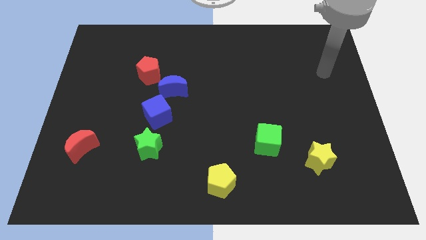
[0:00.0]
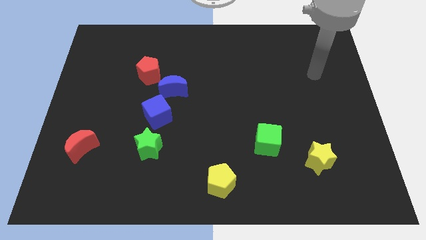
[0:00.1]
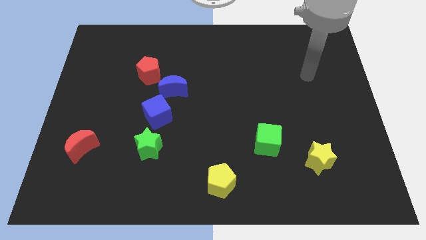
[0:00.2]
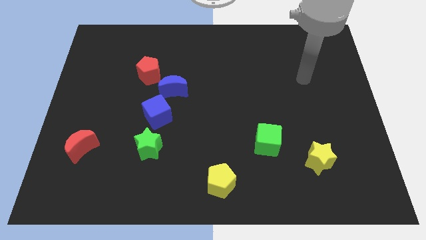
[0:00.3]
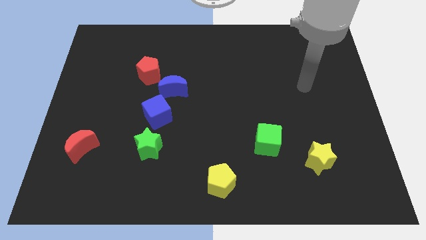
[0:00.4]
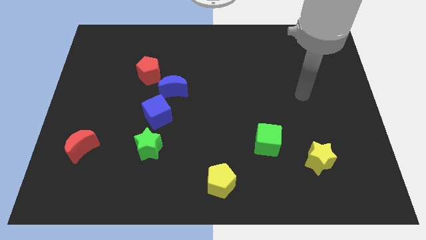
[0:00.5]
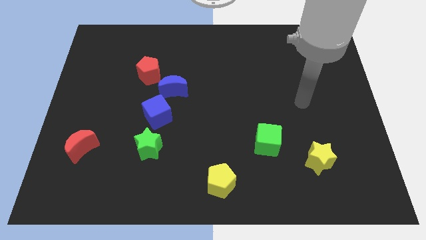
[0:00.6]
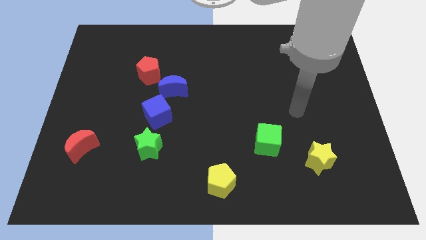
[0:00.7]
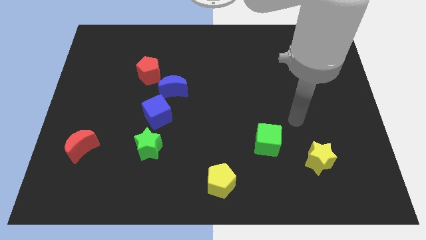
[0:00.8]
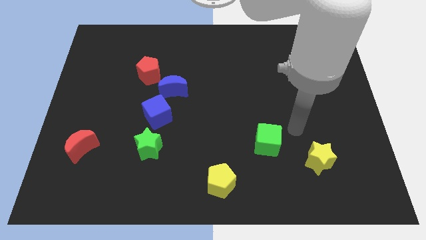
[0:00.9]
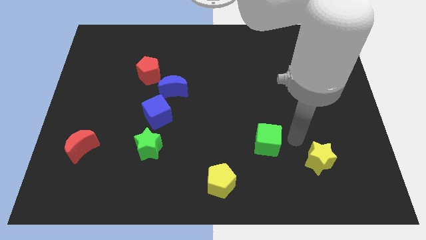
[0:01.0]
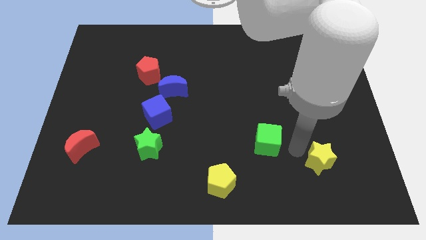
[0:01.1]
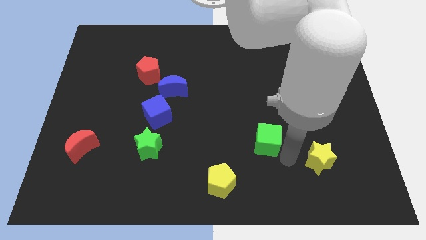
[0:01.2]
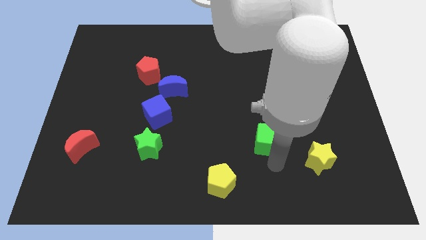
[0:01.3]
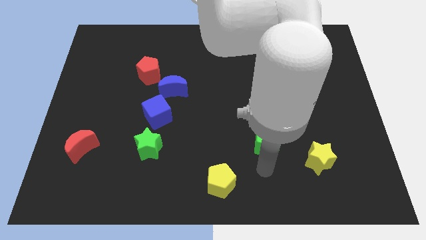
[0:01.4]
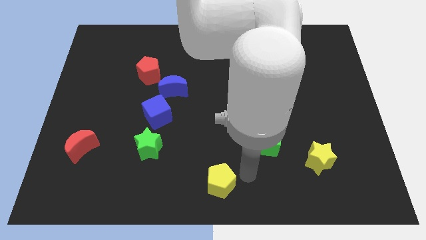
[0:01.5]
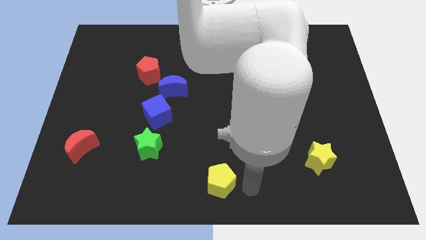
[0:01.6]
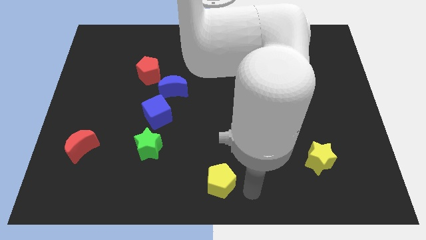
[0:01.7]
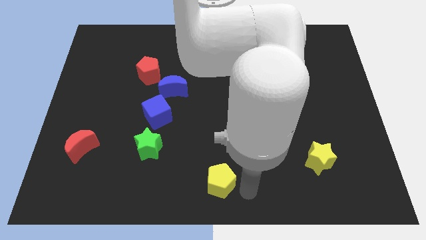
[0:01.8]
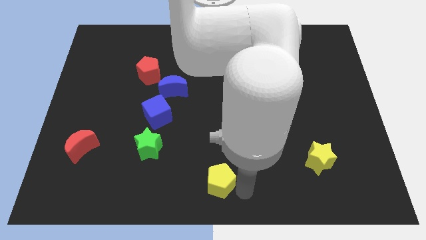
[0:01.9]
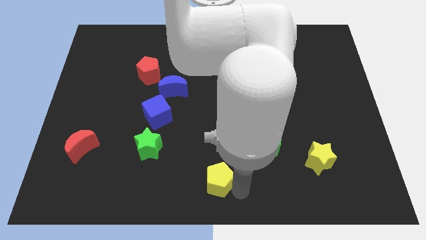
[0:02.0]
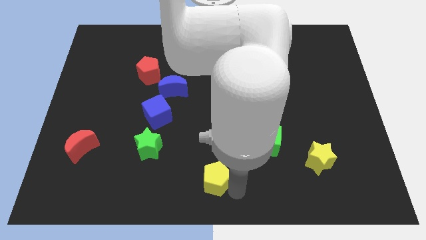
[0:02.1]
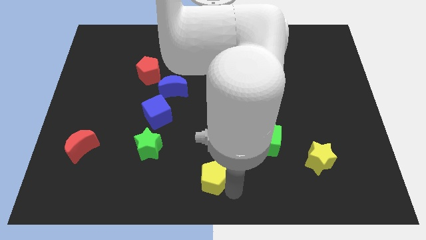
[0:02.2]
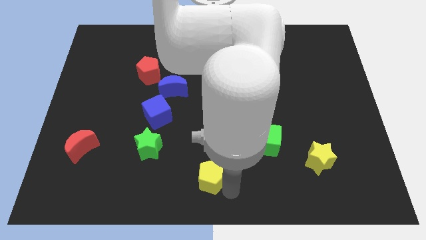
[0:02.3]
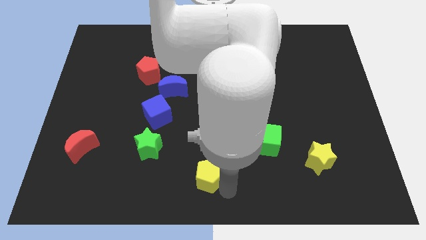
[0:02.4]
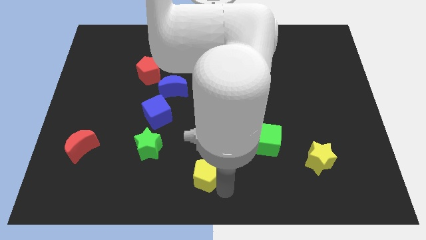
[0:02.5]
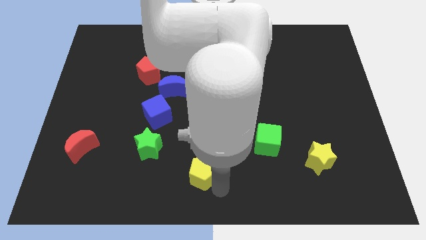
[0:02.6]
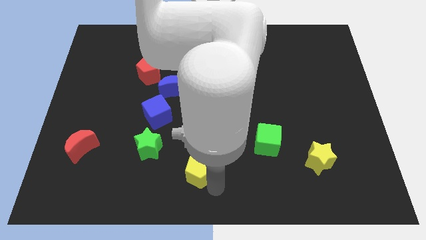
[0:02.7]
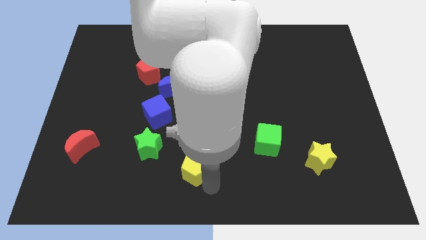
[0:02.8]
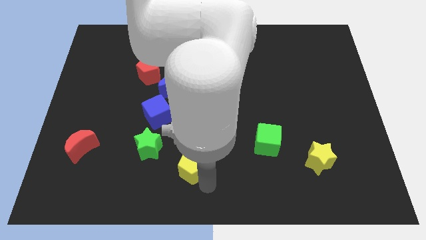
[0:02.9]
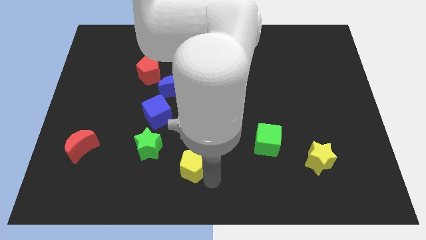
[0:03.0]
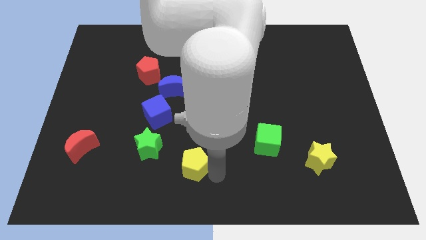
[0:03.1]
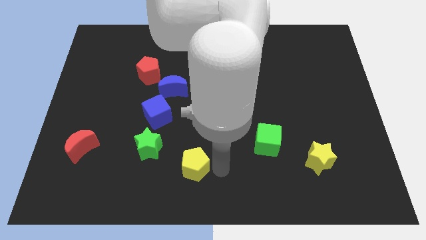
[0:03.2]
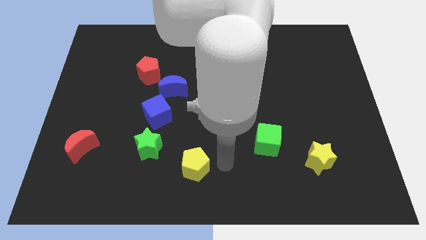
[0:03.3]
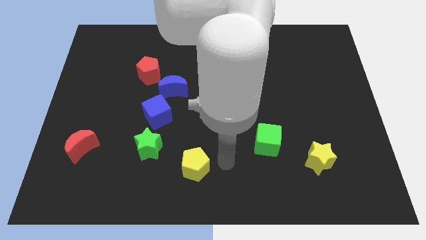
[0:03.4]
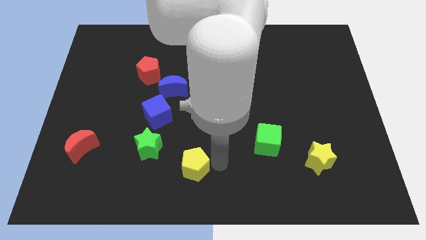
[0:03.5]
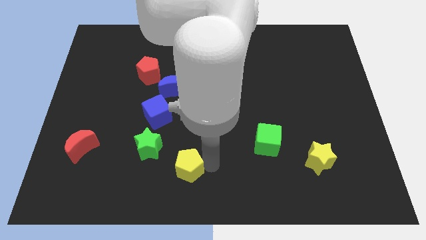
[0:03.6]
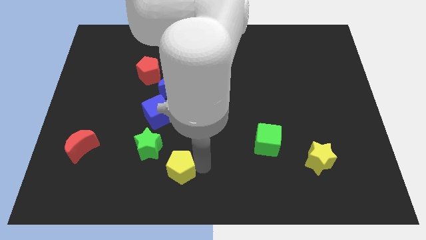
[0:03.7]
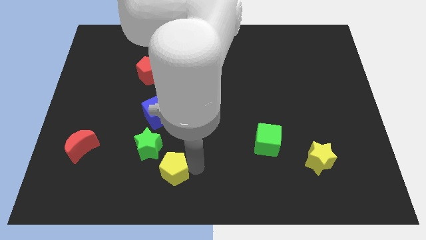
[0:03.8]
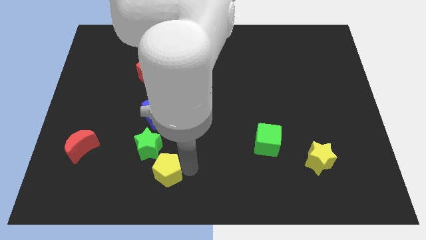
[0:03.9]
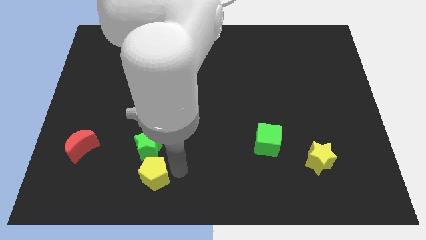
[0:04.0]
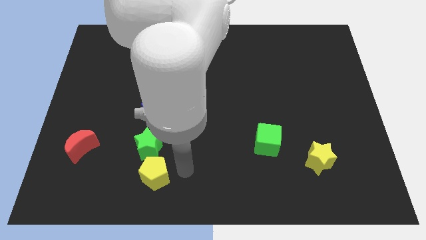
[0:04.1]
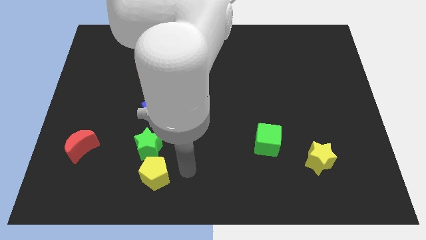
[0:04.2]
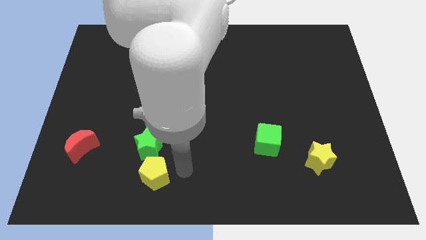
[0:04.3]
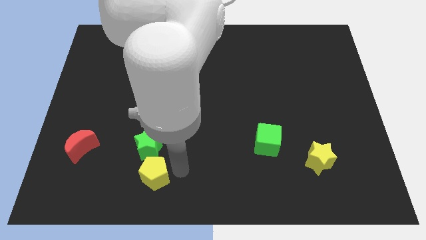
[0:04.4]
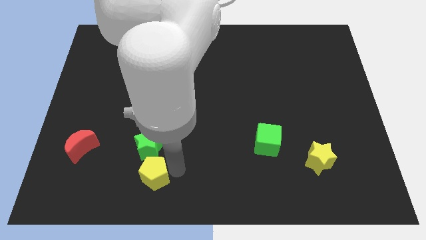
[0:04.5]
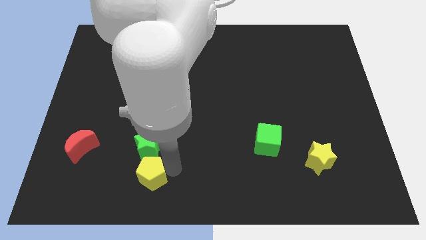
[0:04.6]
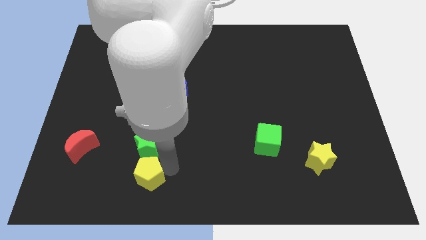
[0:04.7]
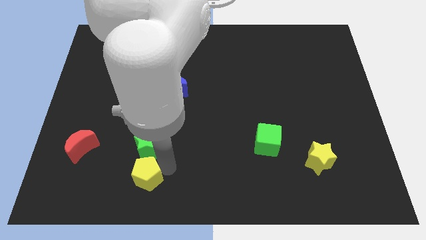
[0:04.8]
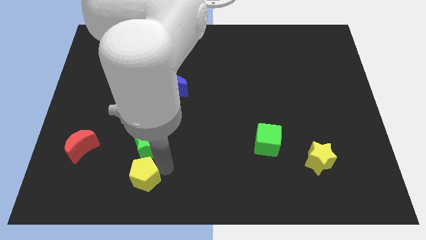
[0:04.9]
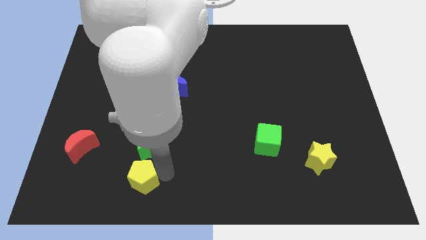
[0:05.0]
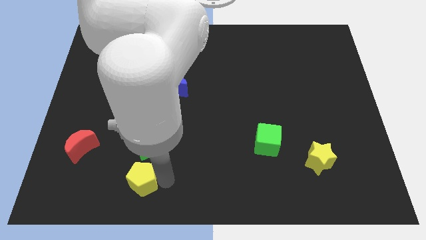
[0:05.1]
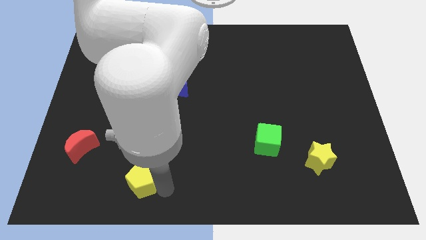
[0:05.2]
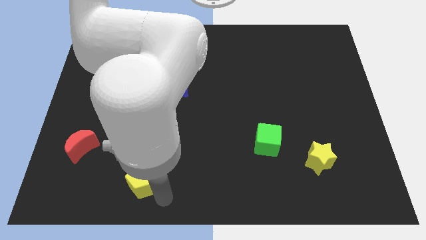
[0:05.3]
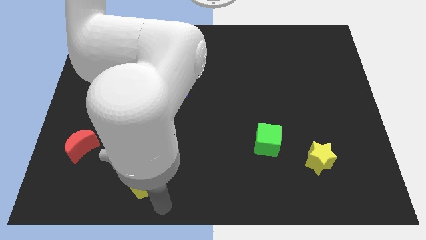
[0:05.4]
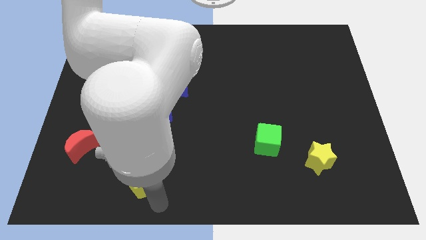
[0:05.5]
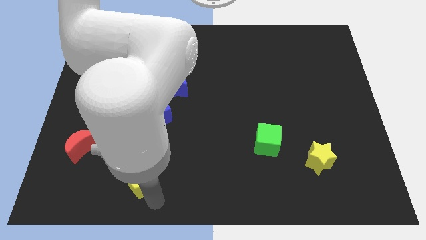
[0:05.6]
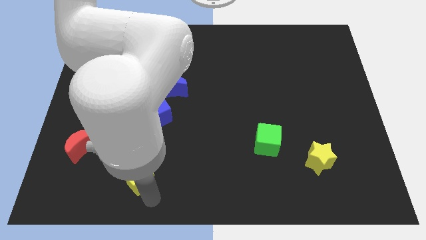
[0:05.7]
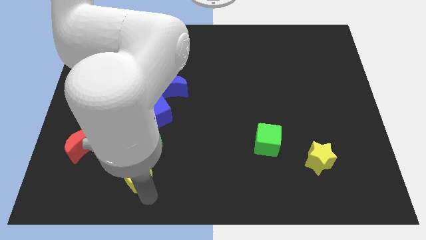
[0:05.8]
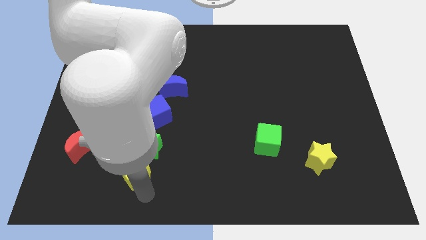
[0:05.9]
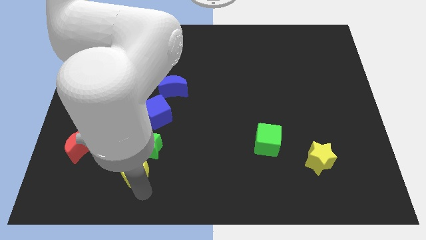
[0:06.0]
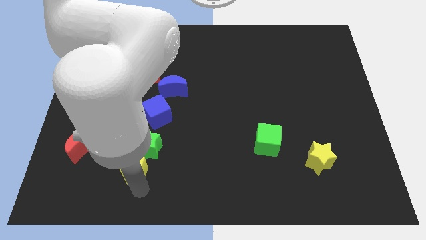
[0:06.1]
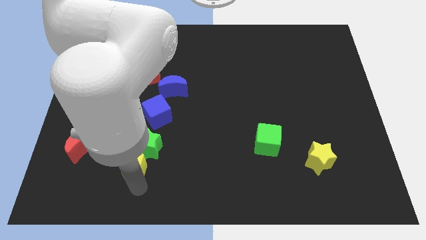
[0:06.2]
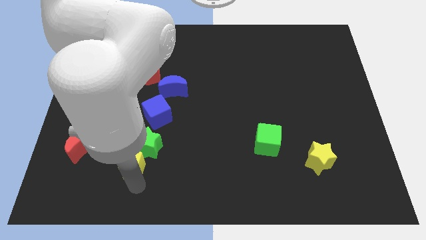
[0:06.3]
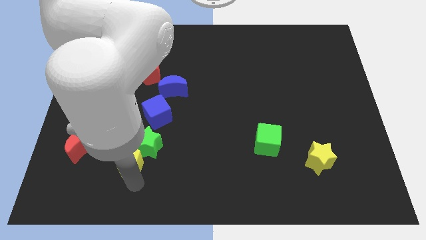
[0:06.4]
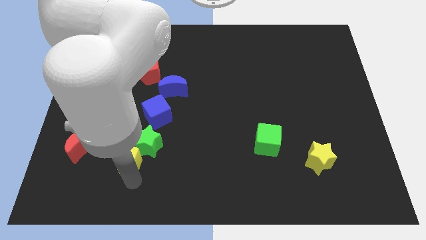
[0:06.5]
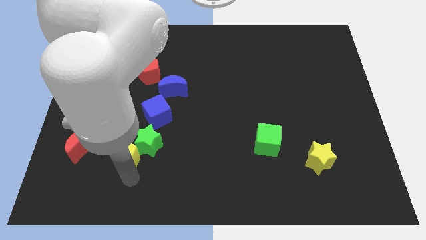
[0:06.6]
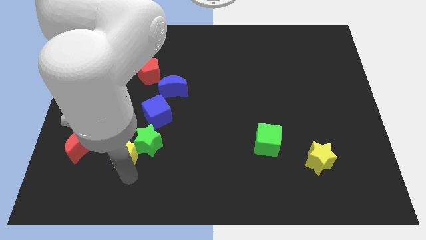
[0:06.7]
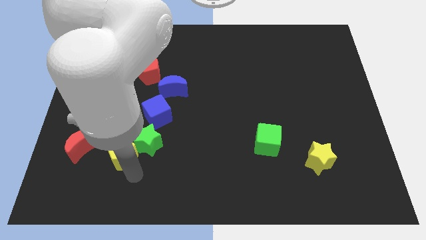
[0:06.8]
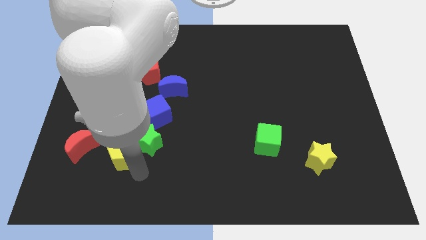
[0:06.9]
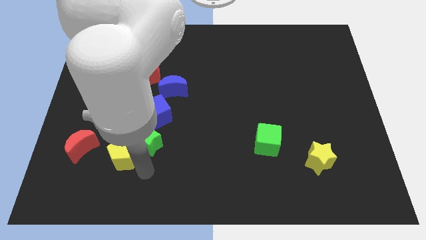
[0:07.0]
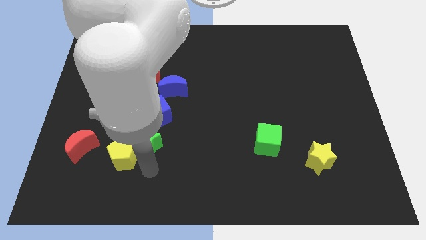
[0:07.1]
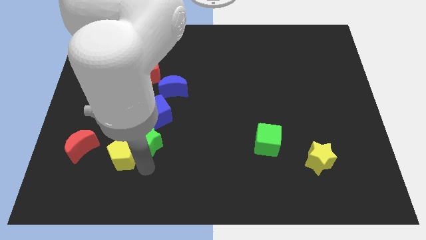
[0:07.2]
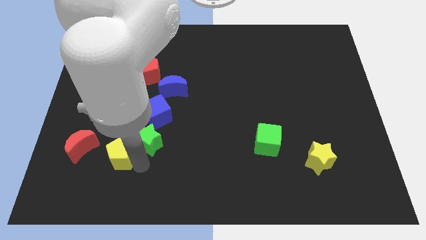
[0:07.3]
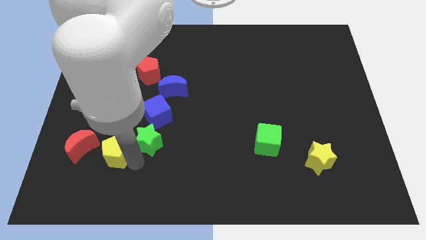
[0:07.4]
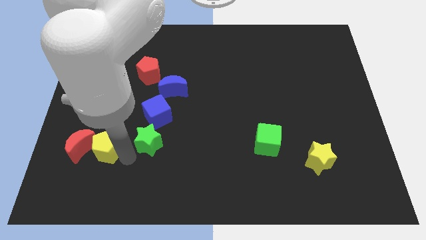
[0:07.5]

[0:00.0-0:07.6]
put the yellow pentagon towards the red moon

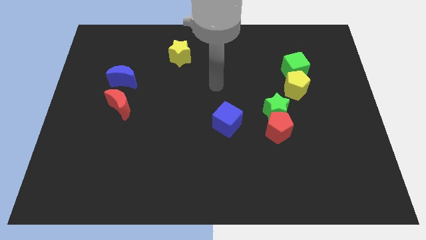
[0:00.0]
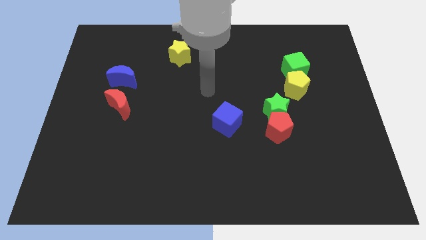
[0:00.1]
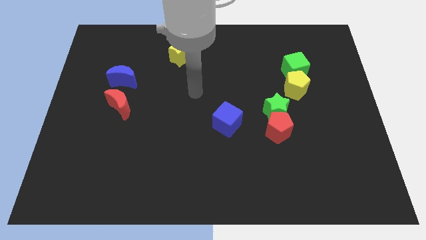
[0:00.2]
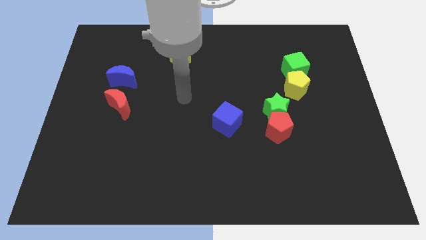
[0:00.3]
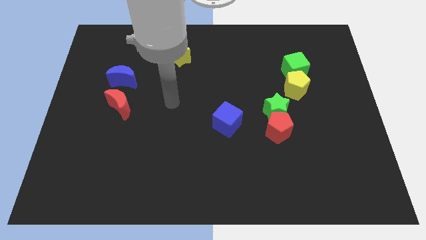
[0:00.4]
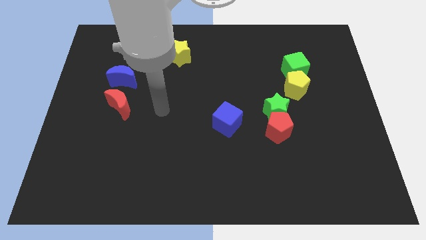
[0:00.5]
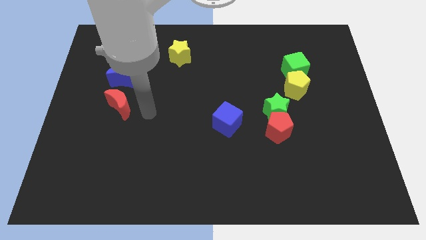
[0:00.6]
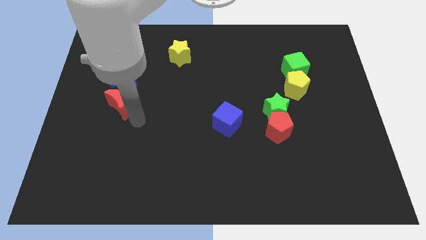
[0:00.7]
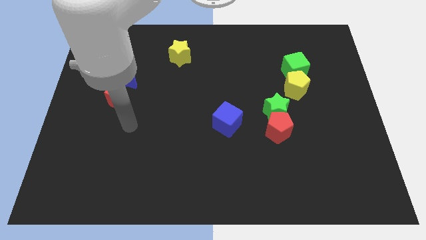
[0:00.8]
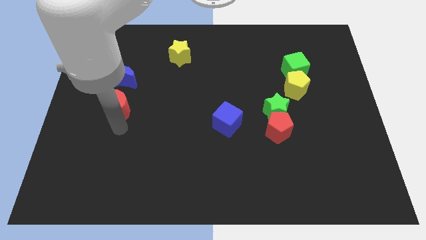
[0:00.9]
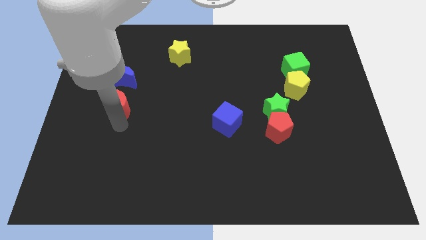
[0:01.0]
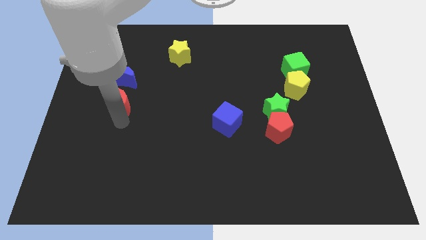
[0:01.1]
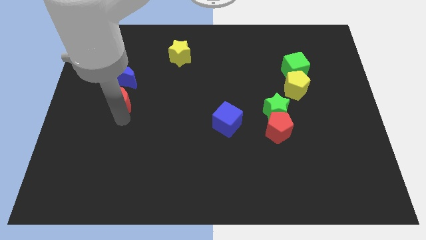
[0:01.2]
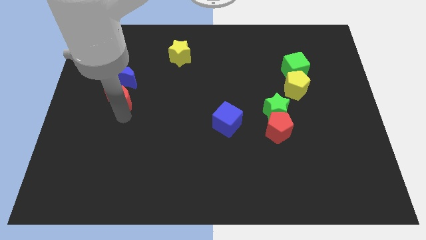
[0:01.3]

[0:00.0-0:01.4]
slide the red moon towards the blue moon
